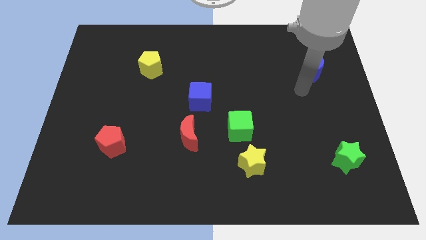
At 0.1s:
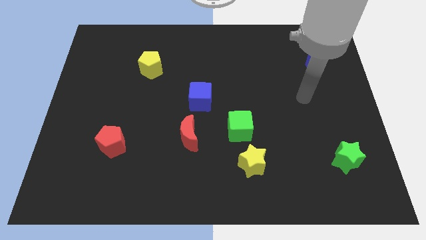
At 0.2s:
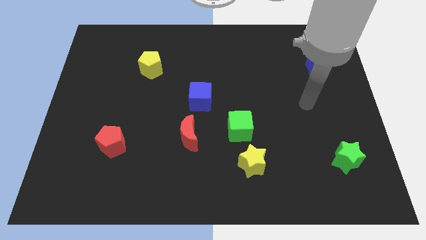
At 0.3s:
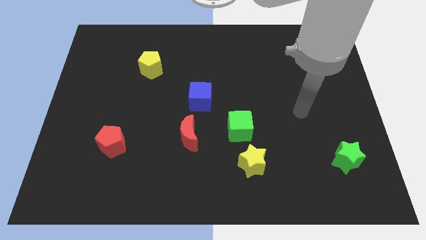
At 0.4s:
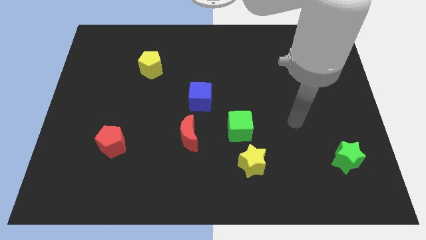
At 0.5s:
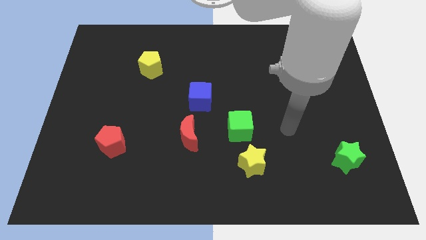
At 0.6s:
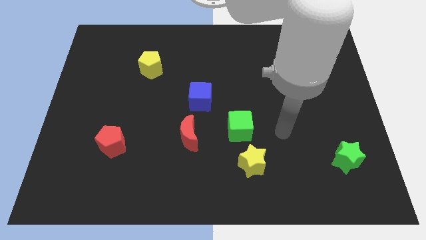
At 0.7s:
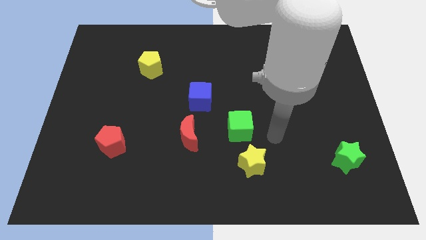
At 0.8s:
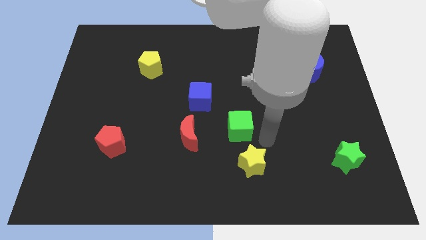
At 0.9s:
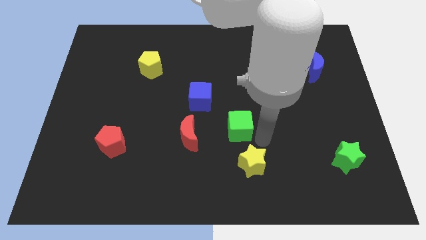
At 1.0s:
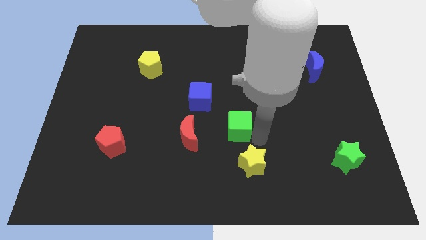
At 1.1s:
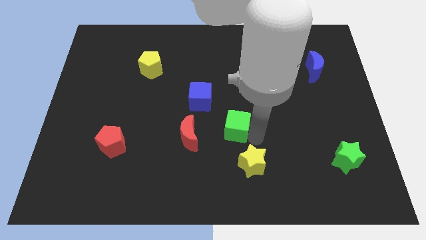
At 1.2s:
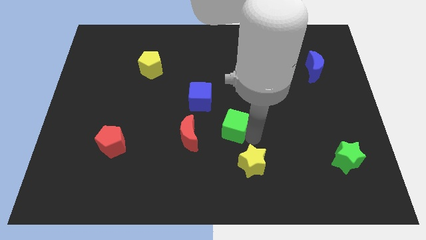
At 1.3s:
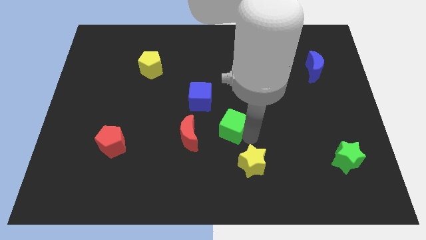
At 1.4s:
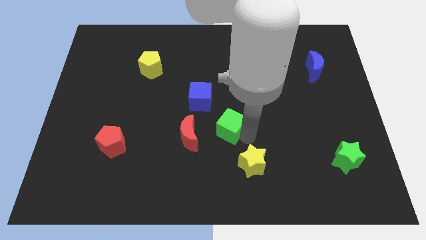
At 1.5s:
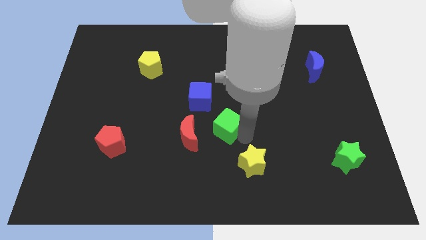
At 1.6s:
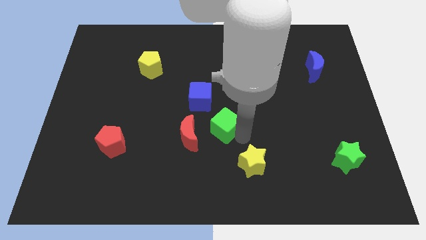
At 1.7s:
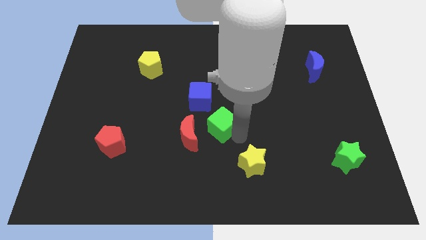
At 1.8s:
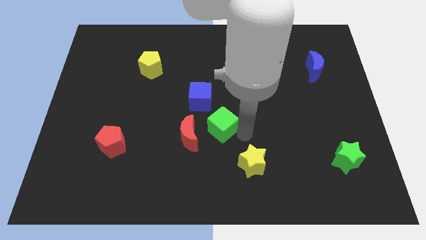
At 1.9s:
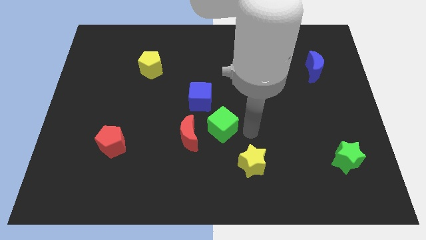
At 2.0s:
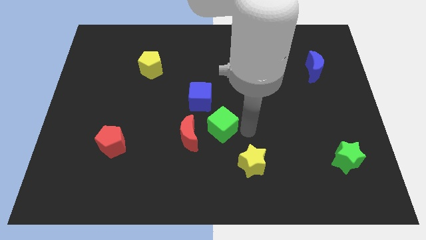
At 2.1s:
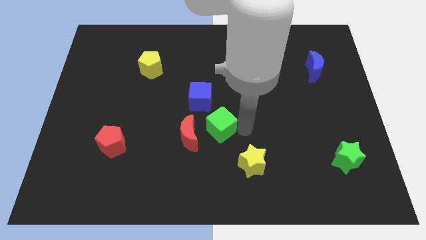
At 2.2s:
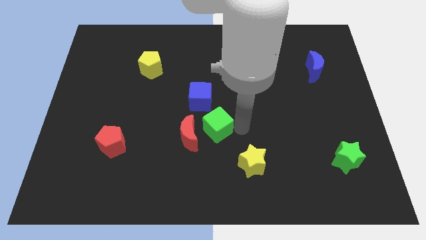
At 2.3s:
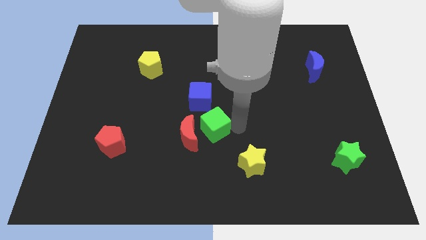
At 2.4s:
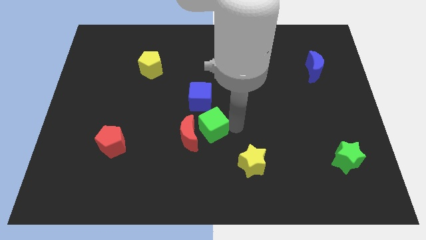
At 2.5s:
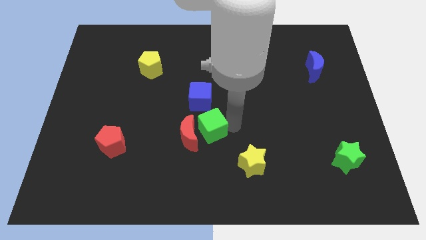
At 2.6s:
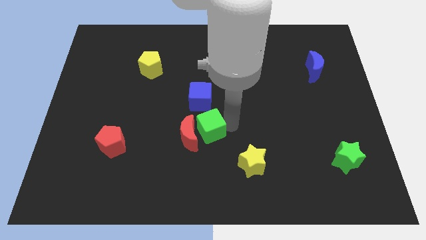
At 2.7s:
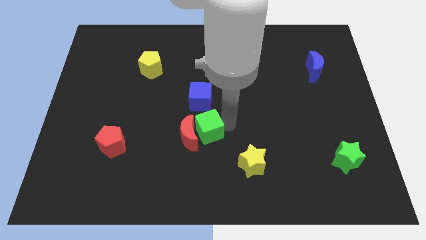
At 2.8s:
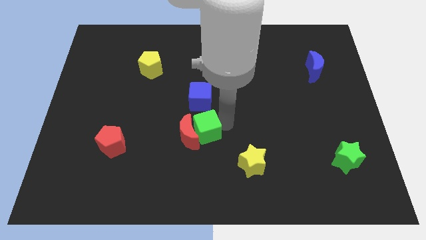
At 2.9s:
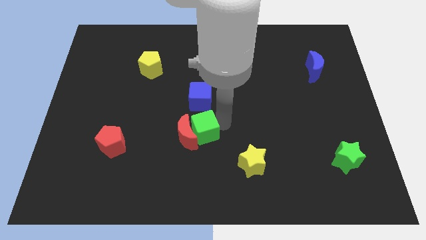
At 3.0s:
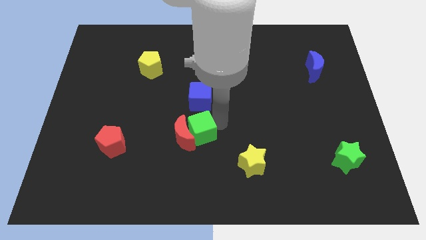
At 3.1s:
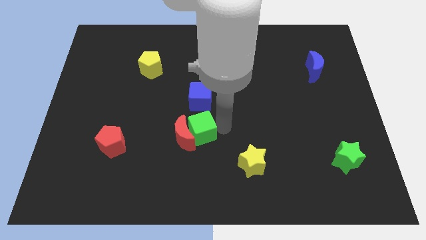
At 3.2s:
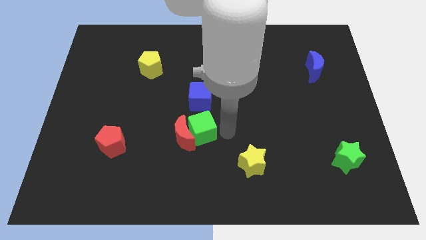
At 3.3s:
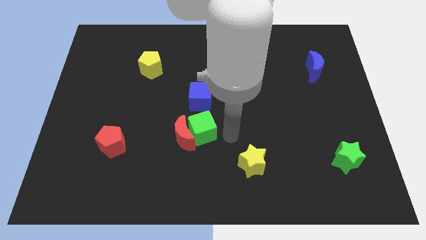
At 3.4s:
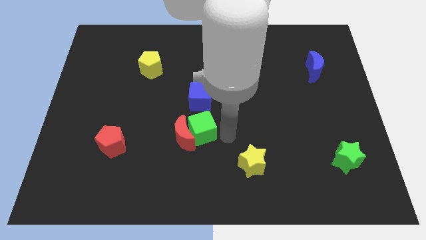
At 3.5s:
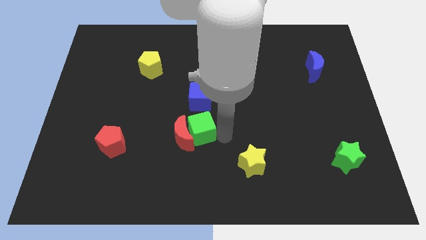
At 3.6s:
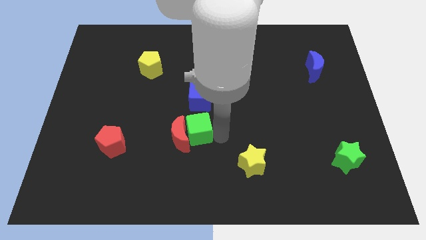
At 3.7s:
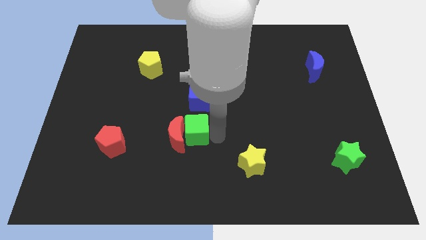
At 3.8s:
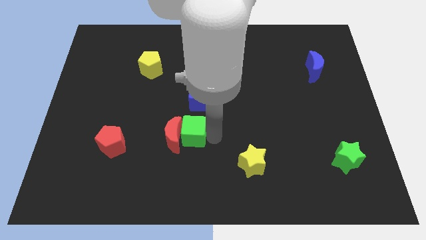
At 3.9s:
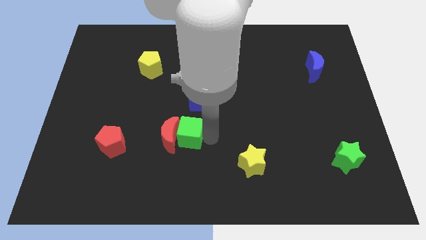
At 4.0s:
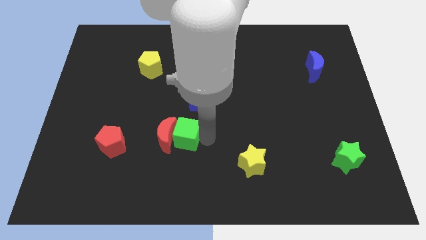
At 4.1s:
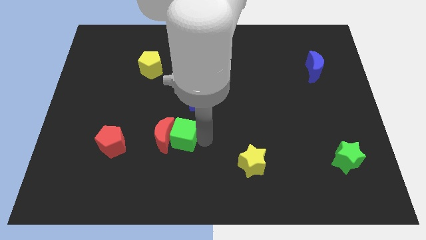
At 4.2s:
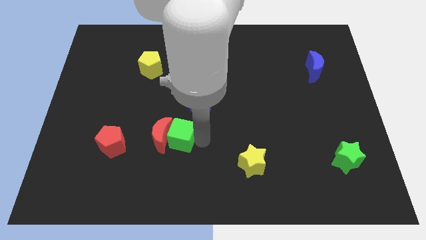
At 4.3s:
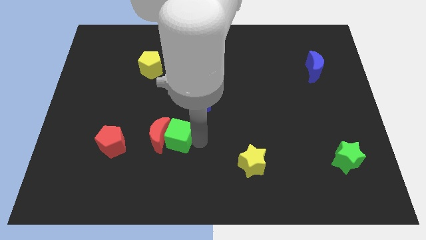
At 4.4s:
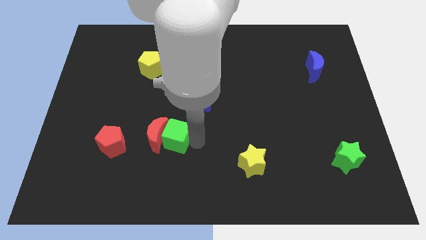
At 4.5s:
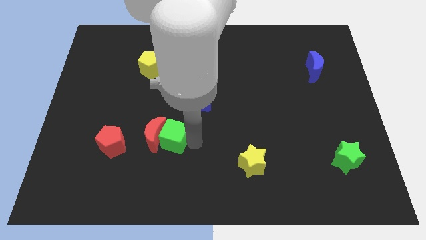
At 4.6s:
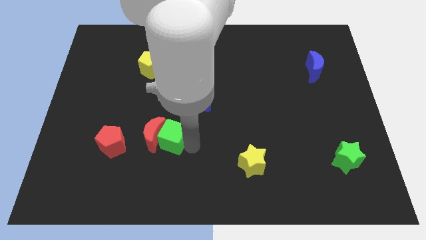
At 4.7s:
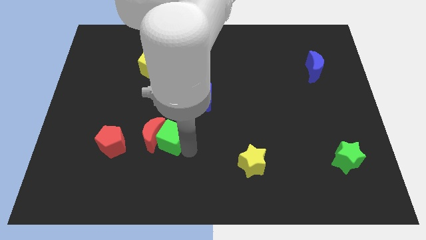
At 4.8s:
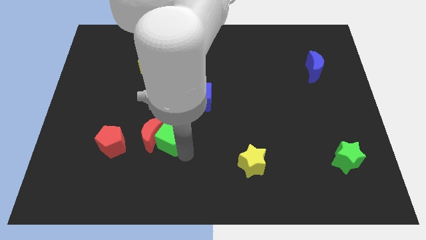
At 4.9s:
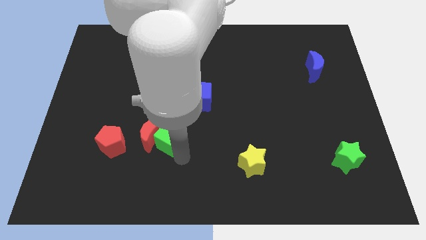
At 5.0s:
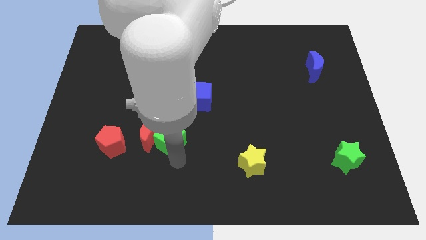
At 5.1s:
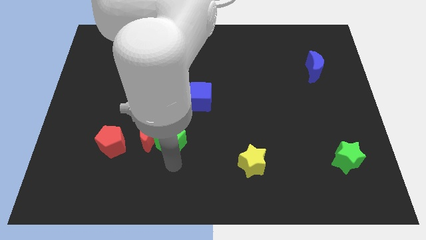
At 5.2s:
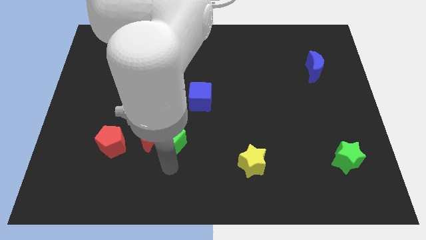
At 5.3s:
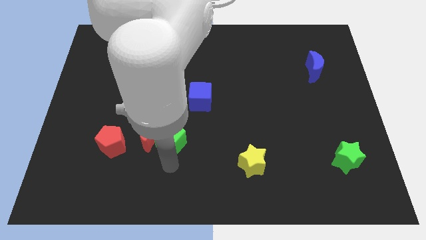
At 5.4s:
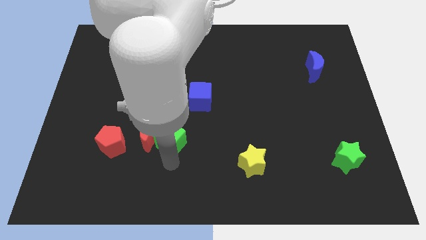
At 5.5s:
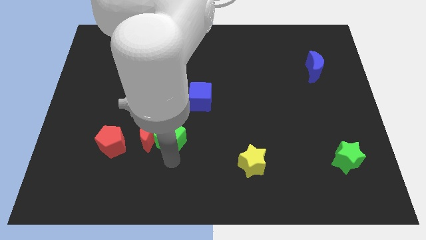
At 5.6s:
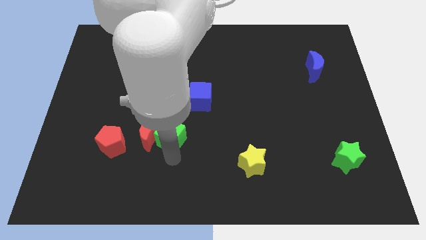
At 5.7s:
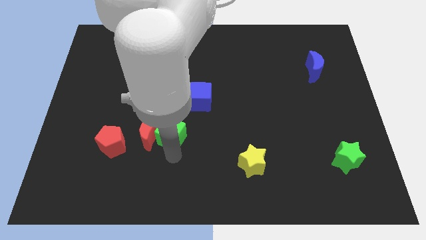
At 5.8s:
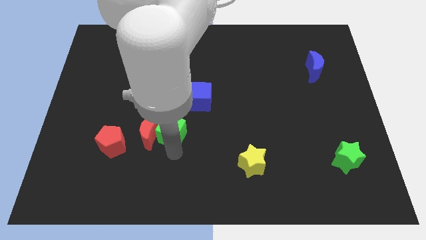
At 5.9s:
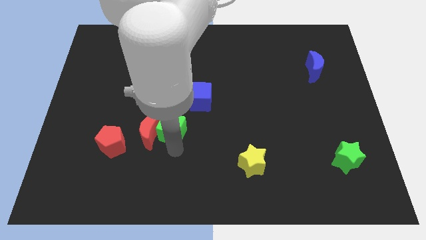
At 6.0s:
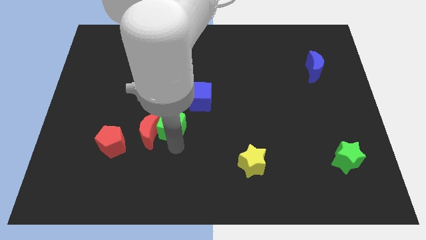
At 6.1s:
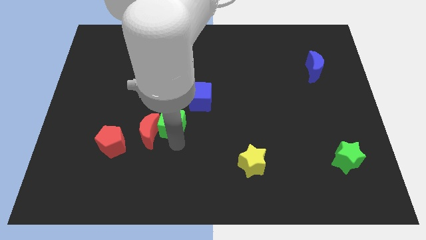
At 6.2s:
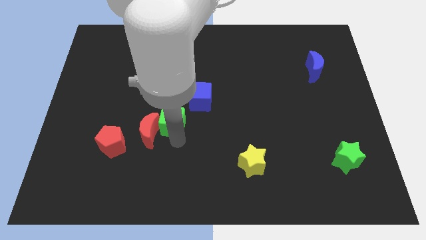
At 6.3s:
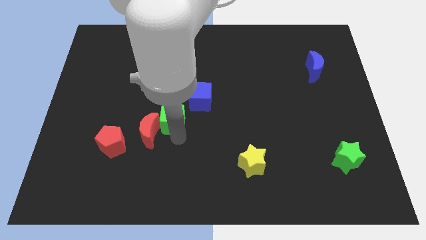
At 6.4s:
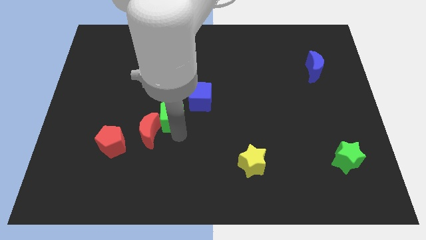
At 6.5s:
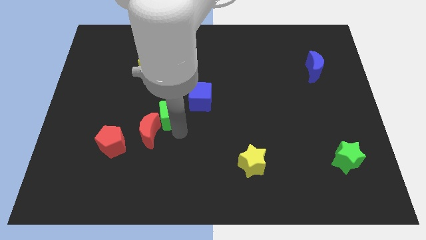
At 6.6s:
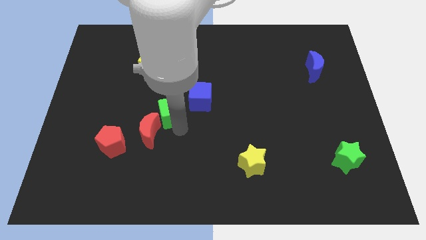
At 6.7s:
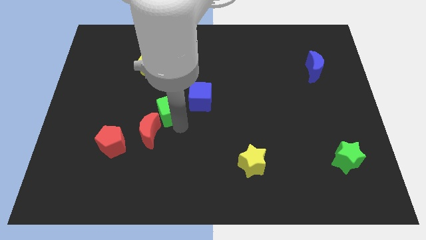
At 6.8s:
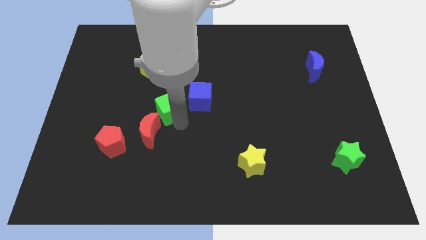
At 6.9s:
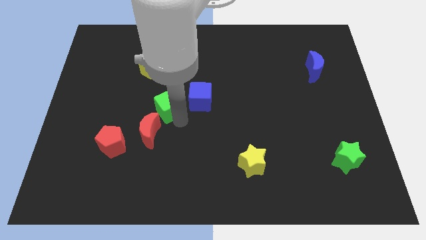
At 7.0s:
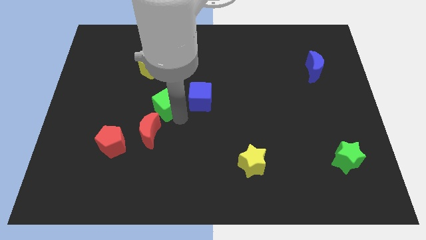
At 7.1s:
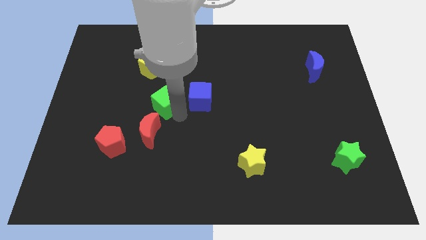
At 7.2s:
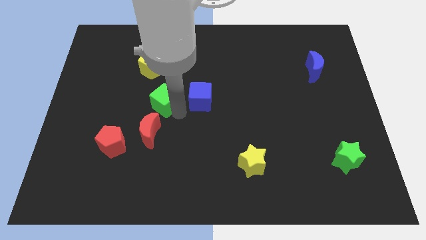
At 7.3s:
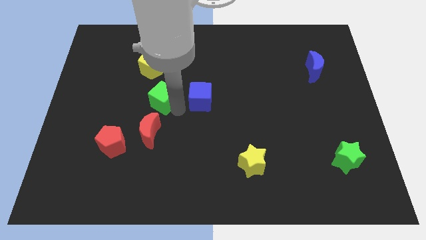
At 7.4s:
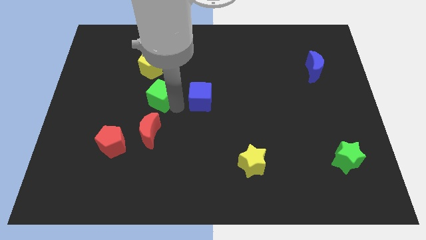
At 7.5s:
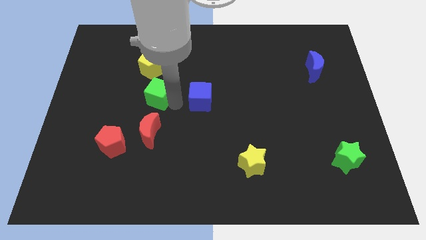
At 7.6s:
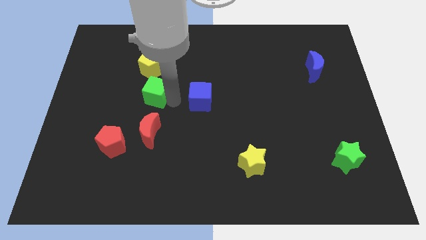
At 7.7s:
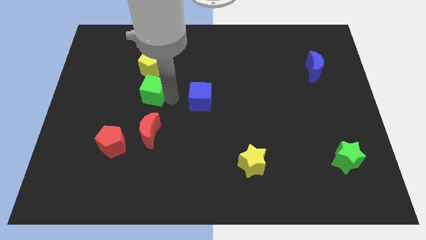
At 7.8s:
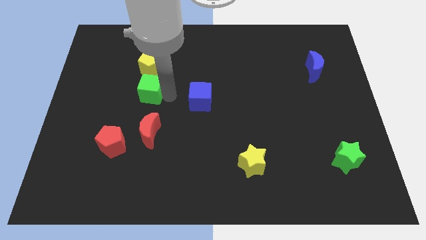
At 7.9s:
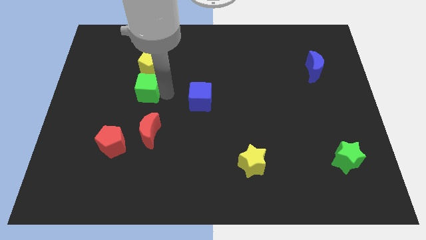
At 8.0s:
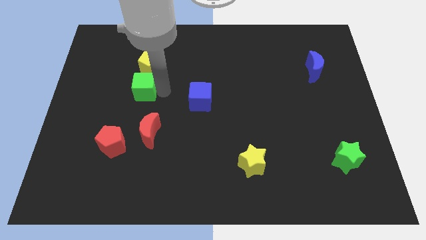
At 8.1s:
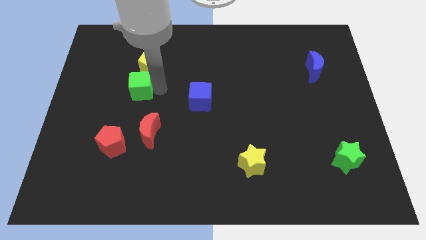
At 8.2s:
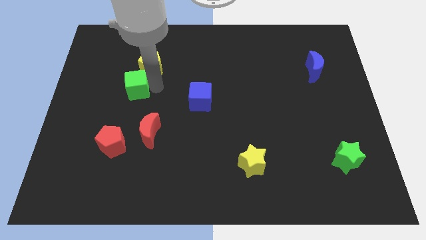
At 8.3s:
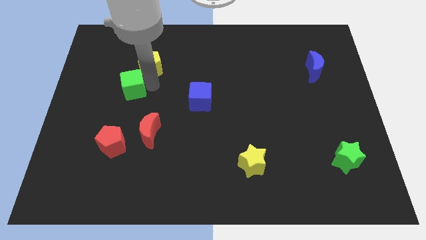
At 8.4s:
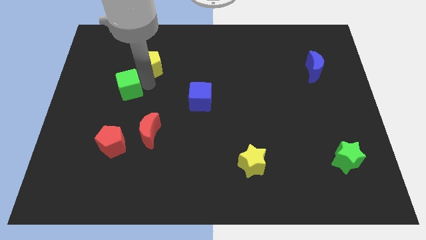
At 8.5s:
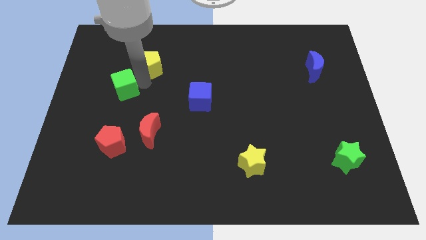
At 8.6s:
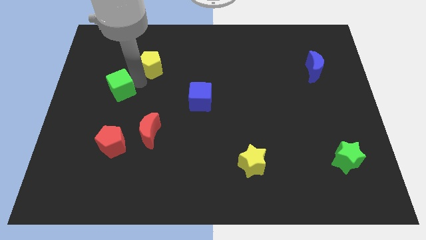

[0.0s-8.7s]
move the green cube left
